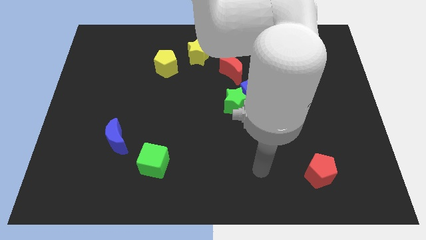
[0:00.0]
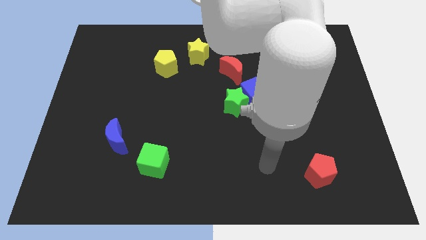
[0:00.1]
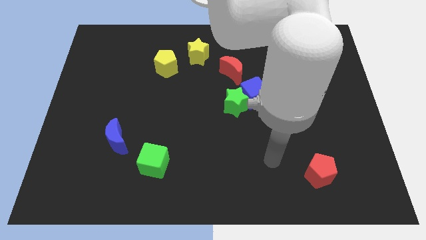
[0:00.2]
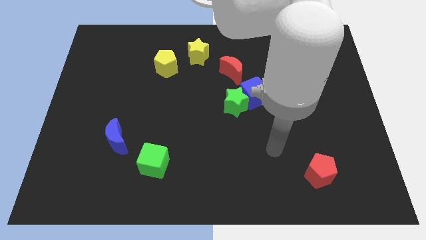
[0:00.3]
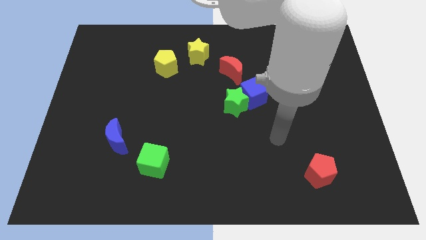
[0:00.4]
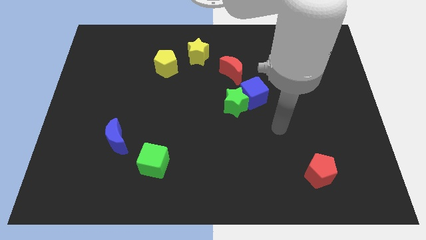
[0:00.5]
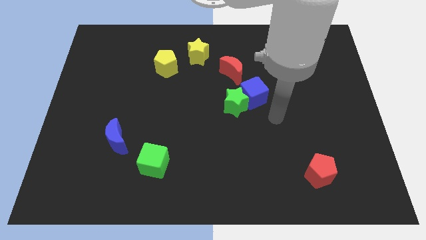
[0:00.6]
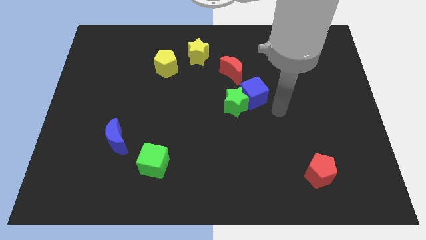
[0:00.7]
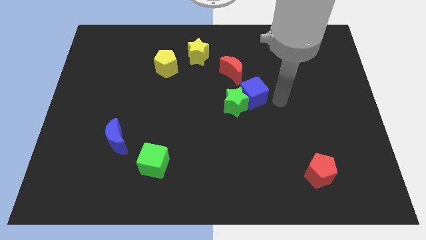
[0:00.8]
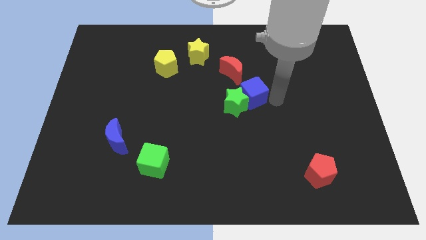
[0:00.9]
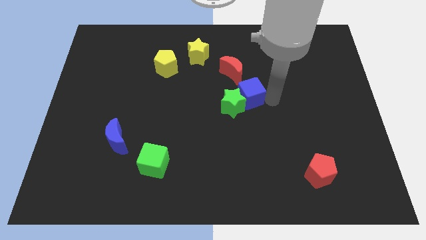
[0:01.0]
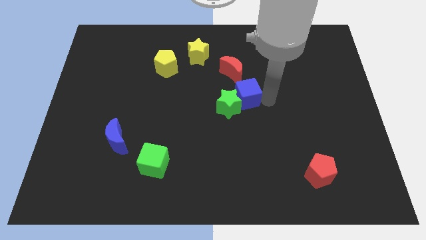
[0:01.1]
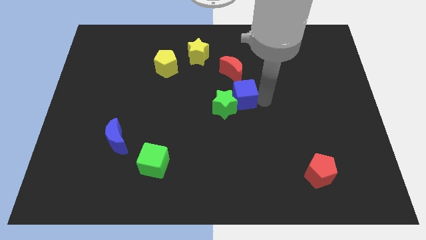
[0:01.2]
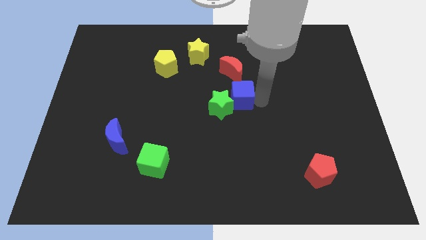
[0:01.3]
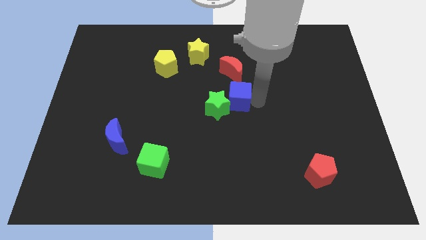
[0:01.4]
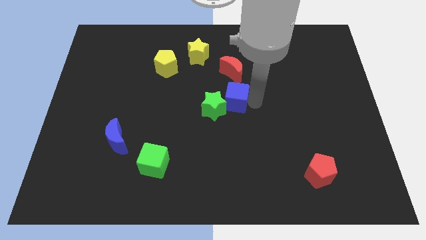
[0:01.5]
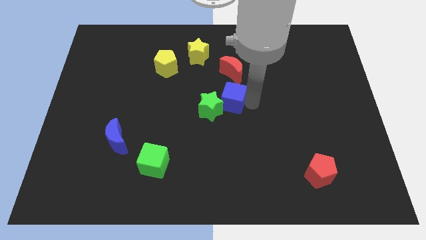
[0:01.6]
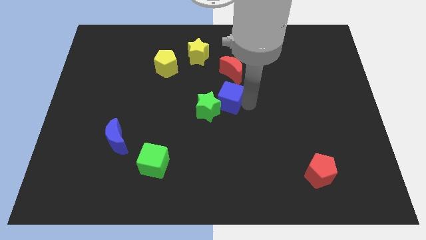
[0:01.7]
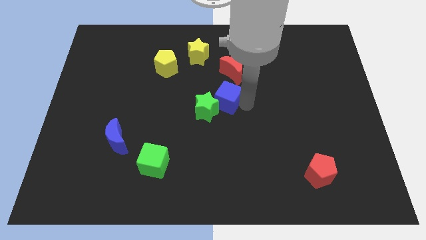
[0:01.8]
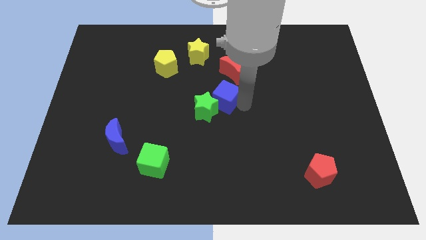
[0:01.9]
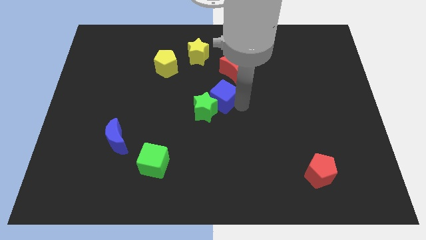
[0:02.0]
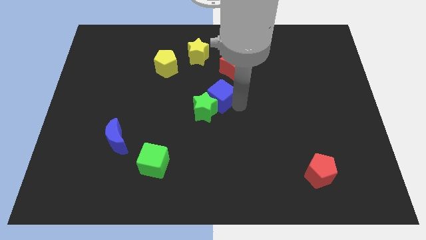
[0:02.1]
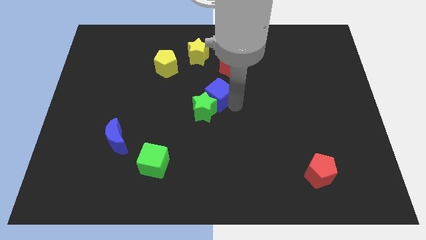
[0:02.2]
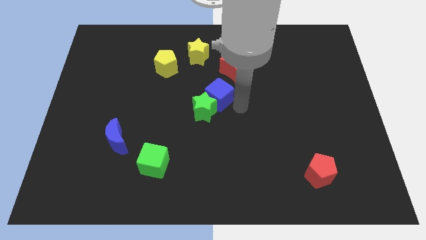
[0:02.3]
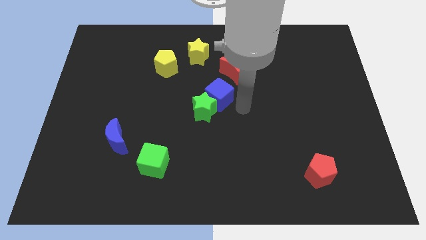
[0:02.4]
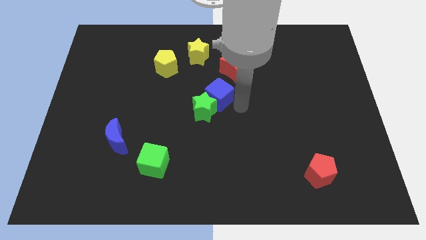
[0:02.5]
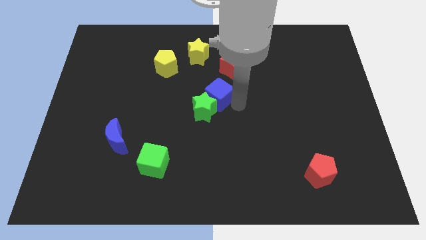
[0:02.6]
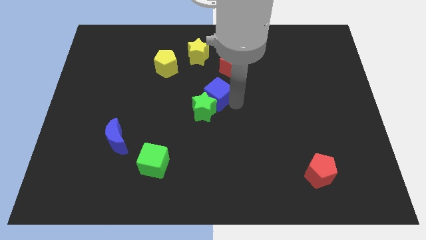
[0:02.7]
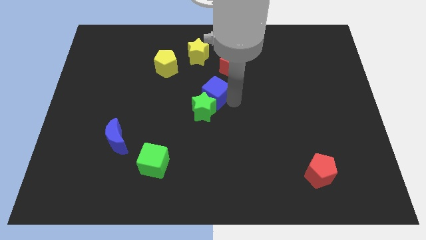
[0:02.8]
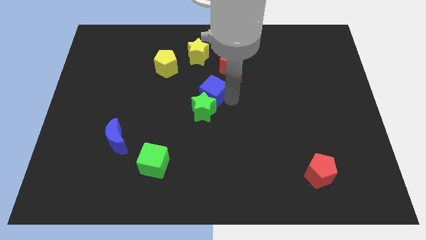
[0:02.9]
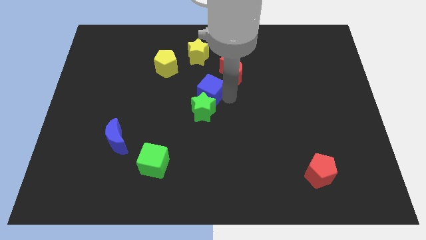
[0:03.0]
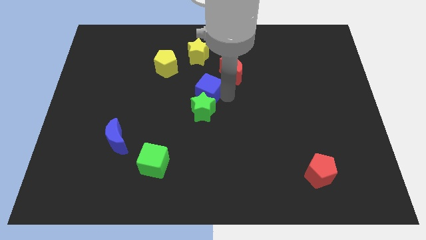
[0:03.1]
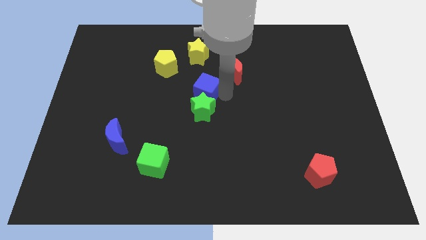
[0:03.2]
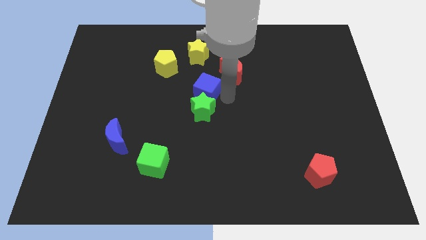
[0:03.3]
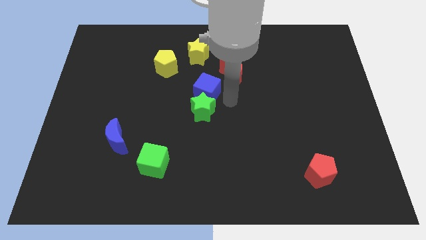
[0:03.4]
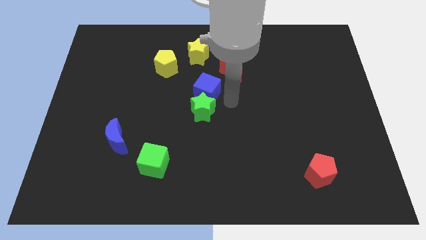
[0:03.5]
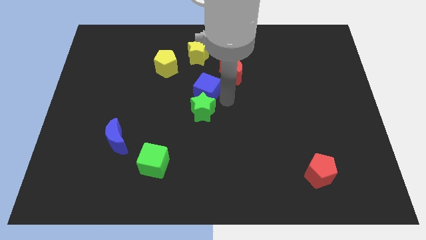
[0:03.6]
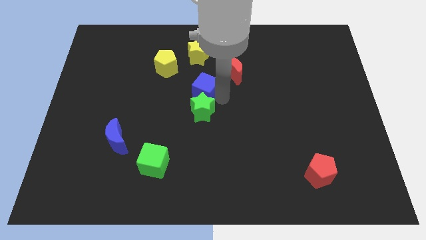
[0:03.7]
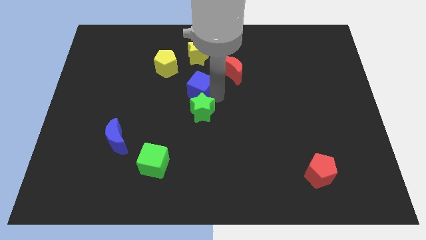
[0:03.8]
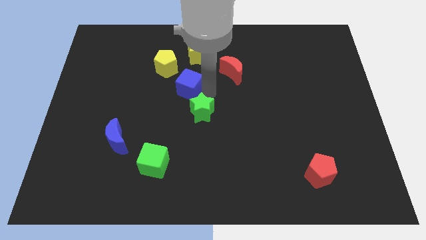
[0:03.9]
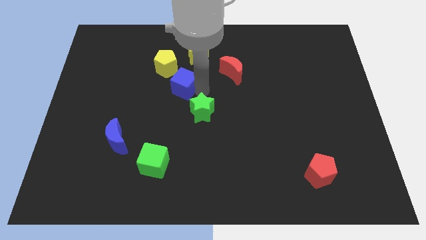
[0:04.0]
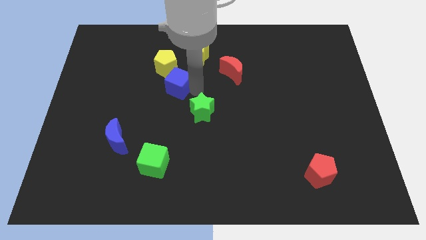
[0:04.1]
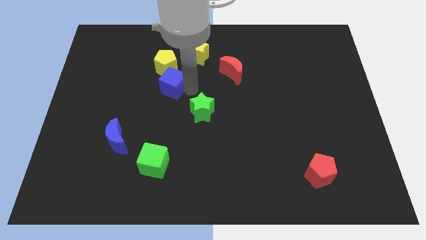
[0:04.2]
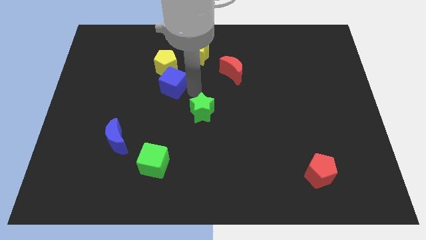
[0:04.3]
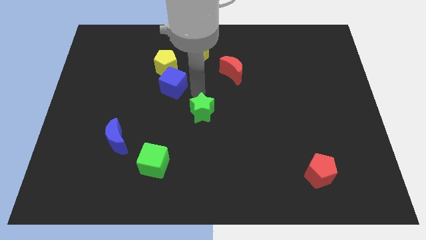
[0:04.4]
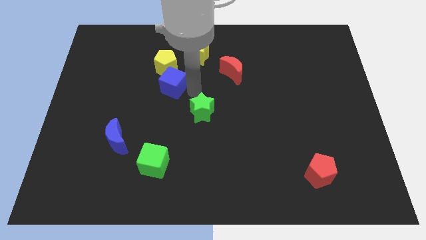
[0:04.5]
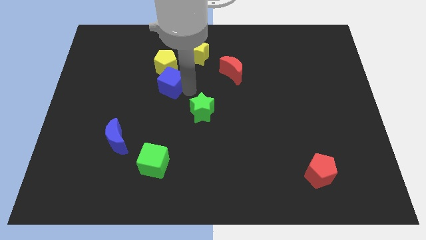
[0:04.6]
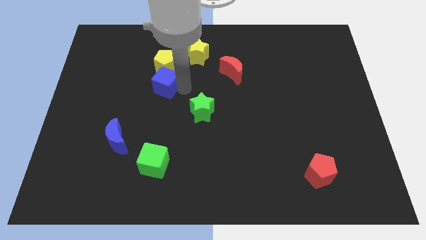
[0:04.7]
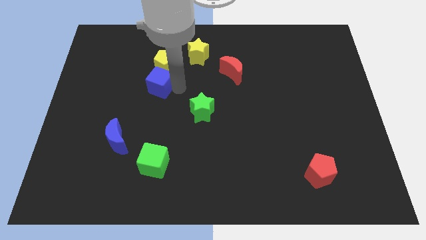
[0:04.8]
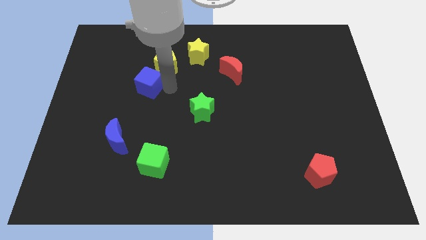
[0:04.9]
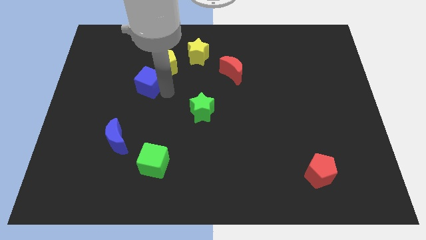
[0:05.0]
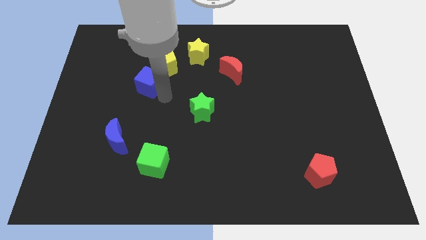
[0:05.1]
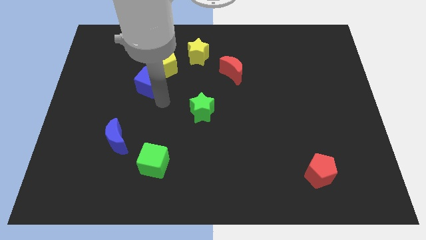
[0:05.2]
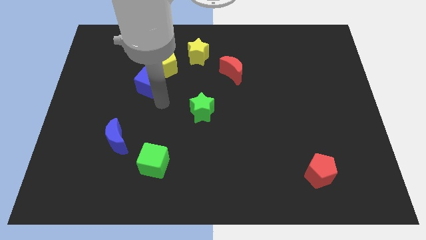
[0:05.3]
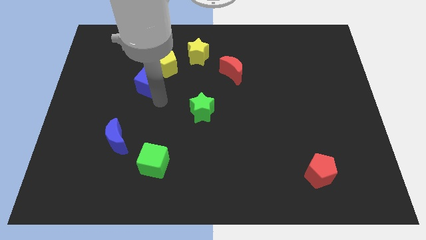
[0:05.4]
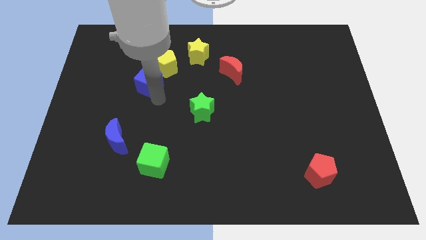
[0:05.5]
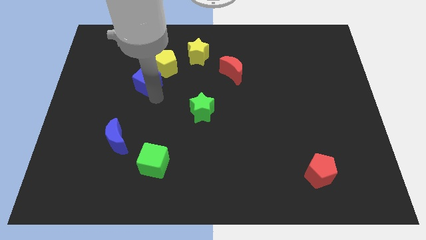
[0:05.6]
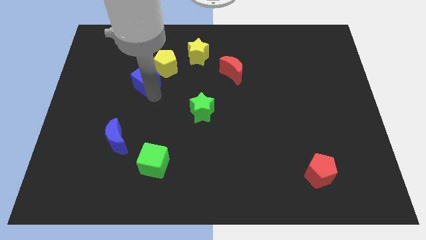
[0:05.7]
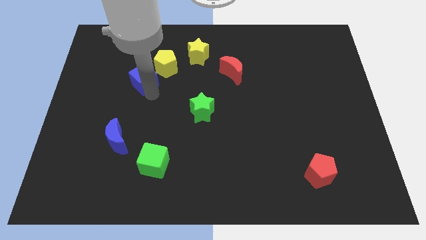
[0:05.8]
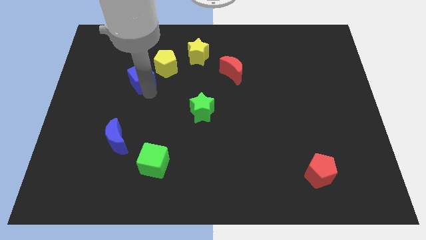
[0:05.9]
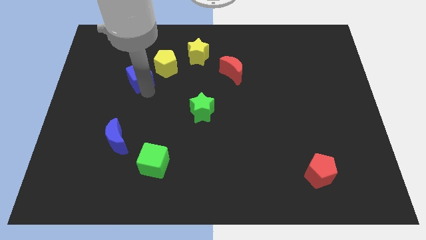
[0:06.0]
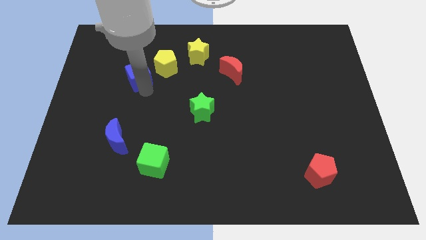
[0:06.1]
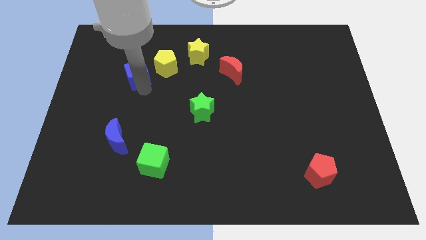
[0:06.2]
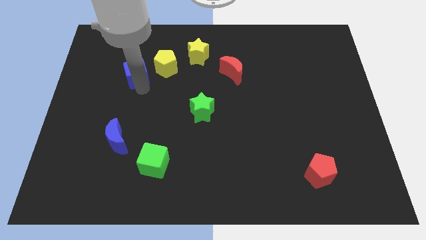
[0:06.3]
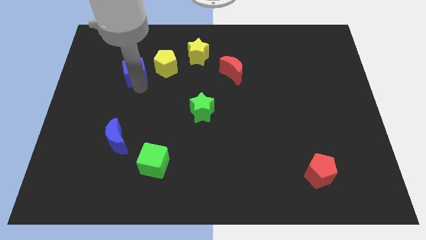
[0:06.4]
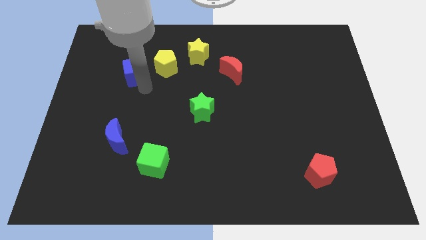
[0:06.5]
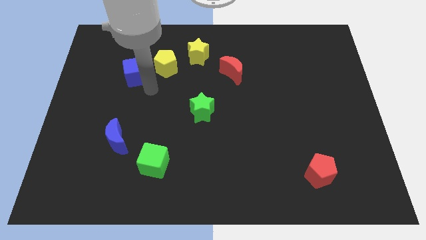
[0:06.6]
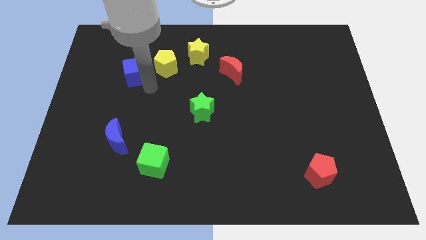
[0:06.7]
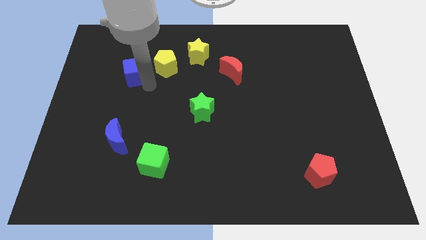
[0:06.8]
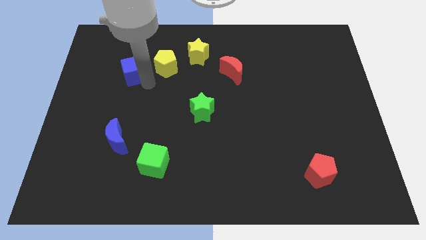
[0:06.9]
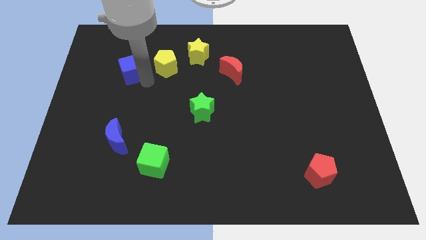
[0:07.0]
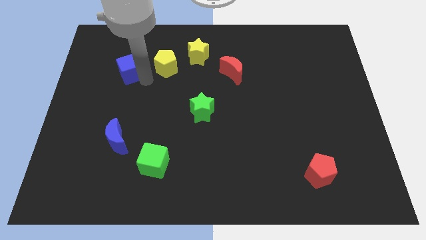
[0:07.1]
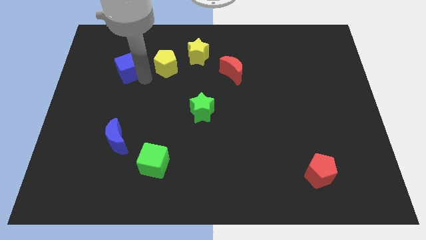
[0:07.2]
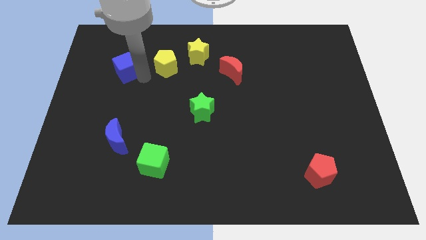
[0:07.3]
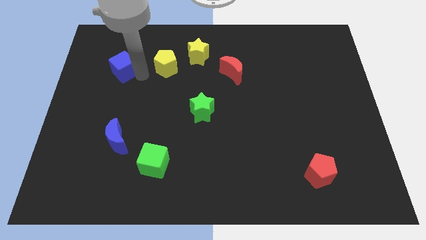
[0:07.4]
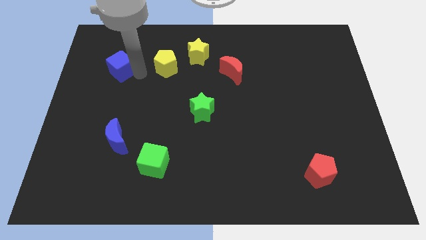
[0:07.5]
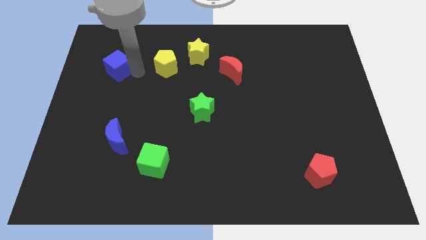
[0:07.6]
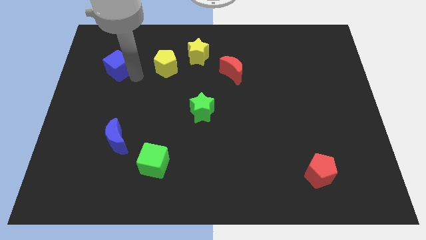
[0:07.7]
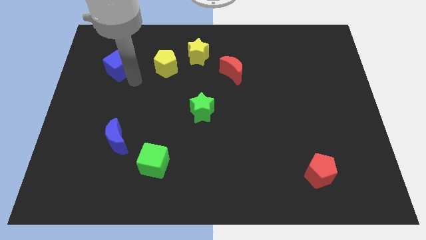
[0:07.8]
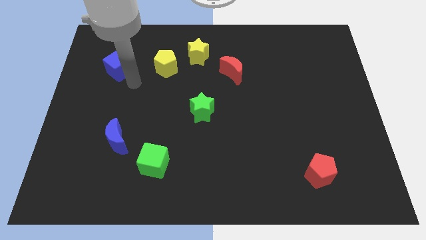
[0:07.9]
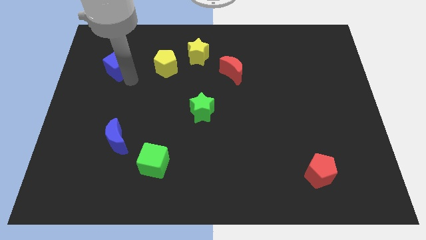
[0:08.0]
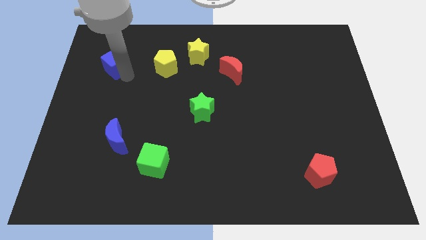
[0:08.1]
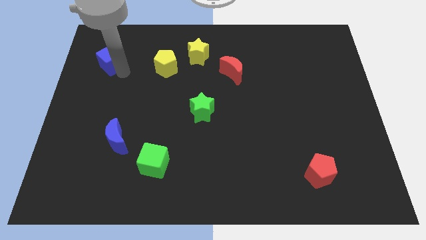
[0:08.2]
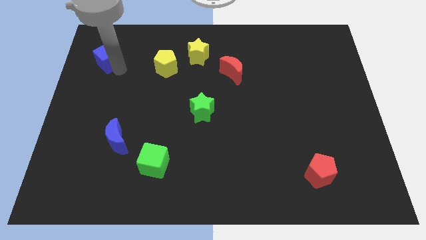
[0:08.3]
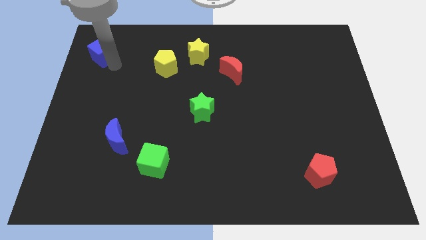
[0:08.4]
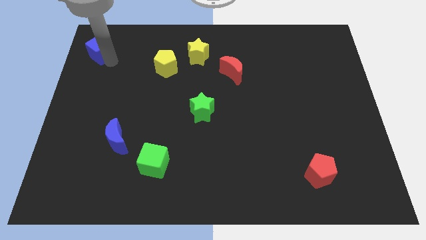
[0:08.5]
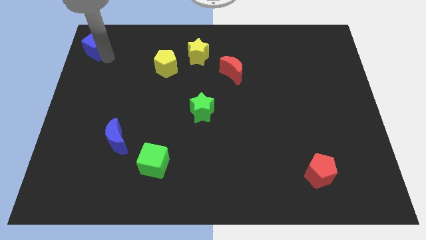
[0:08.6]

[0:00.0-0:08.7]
slide the blue cube to the upper left corner
